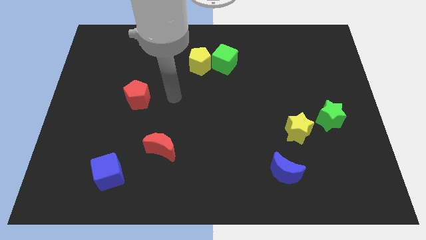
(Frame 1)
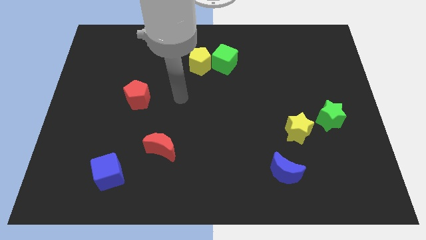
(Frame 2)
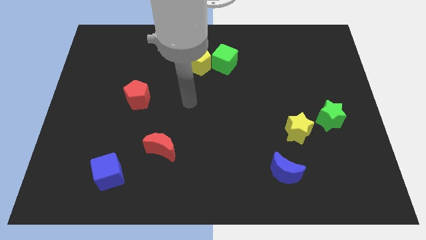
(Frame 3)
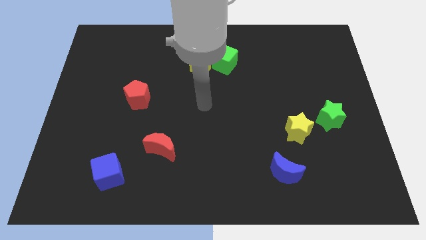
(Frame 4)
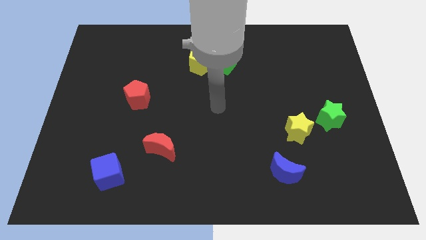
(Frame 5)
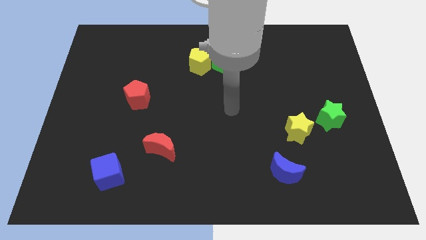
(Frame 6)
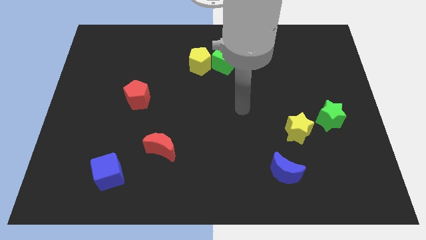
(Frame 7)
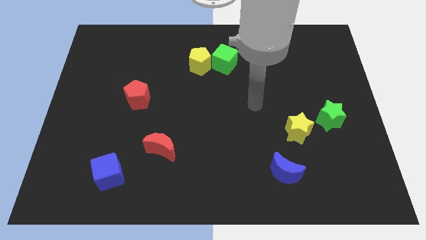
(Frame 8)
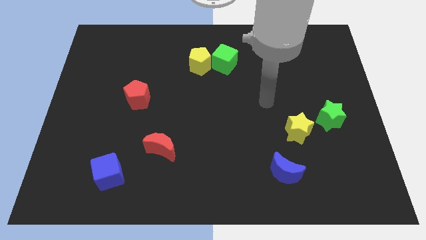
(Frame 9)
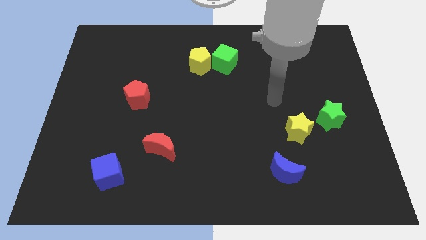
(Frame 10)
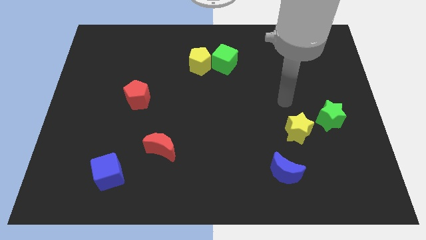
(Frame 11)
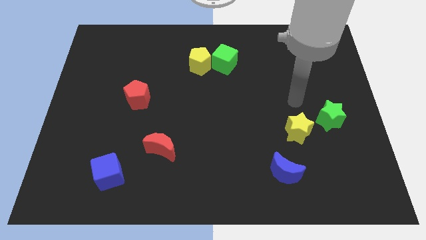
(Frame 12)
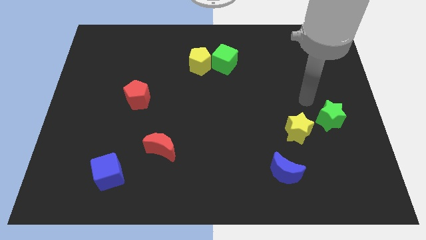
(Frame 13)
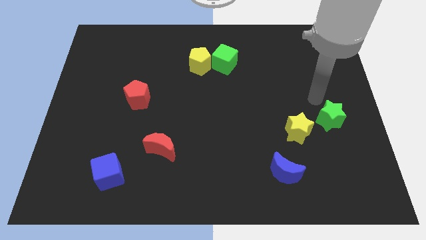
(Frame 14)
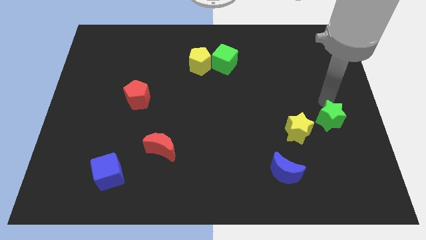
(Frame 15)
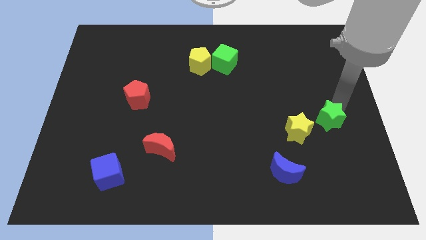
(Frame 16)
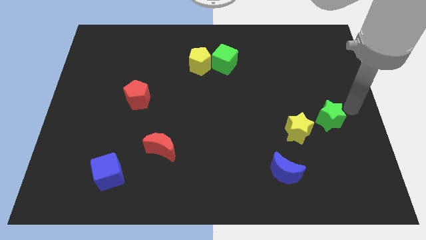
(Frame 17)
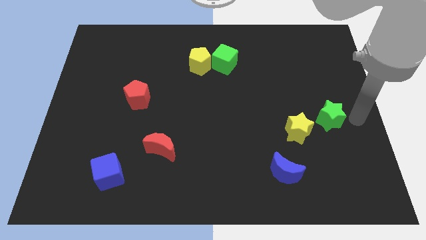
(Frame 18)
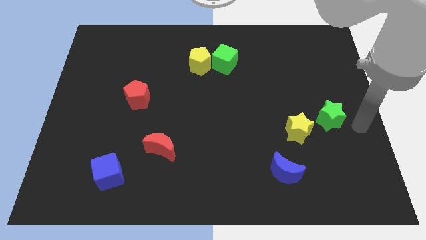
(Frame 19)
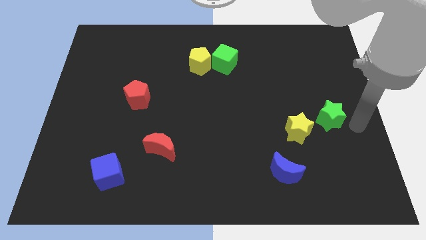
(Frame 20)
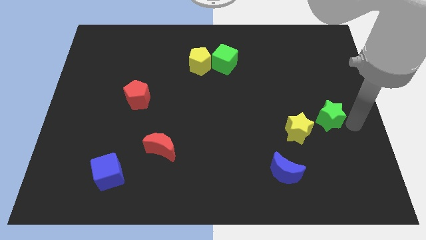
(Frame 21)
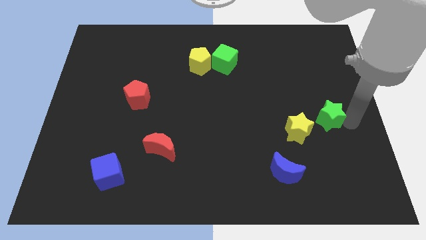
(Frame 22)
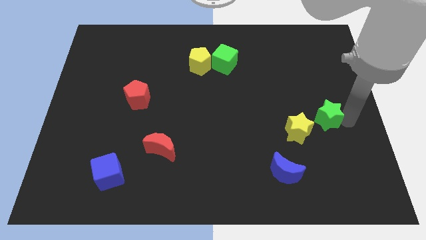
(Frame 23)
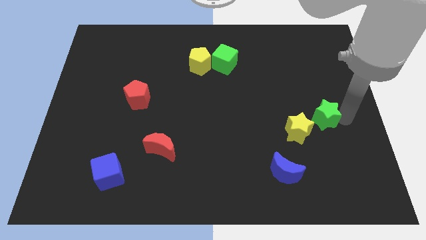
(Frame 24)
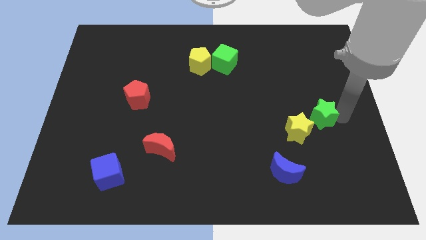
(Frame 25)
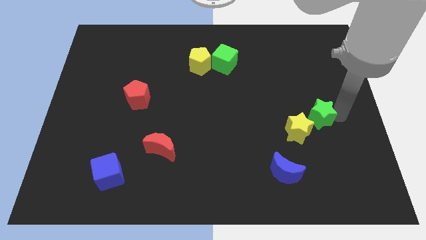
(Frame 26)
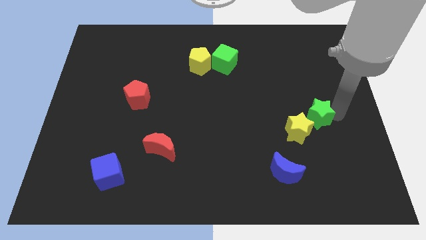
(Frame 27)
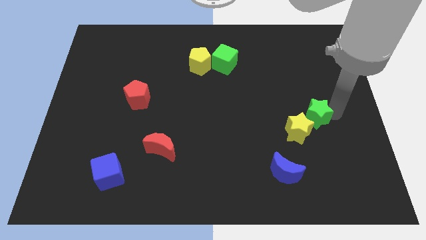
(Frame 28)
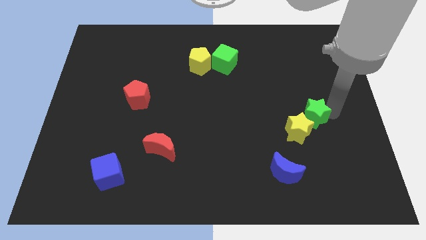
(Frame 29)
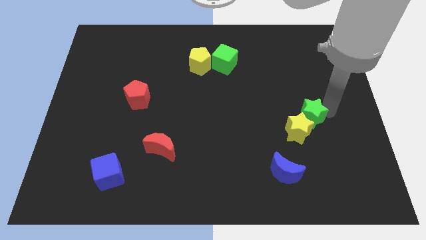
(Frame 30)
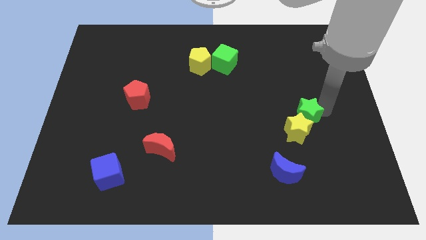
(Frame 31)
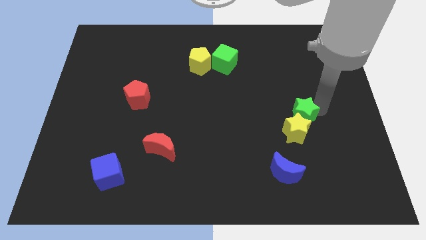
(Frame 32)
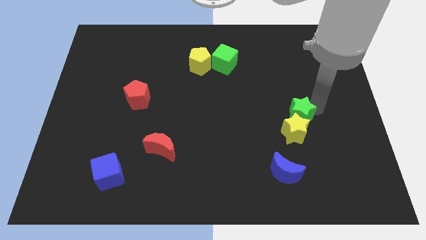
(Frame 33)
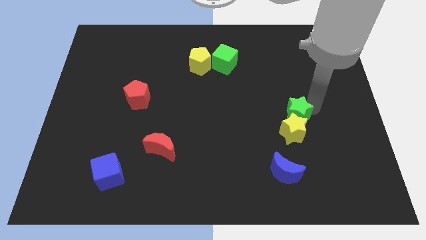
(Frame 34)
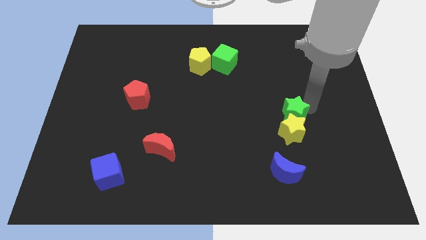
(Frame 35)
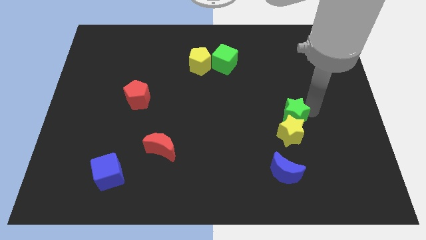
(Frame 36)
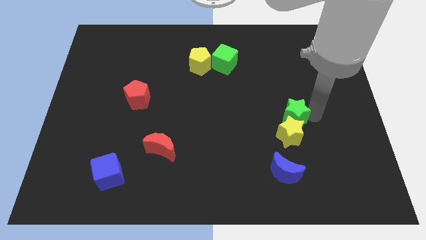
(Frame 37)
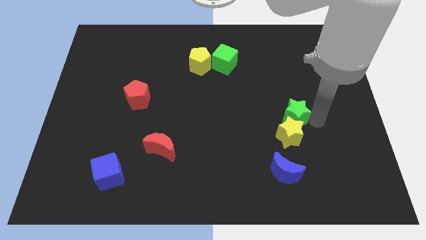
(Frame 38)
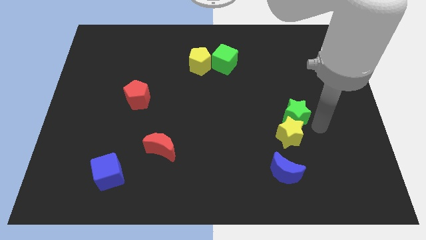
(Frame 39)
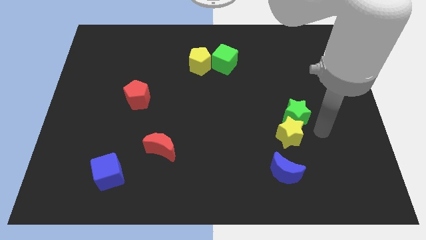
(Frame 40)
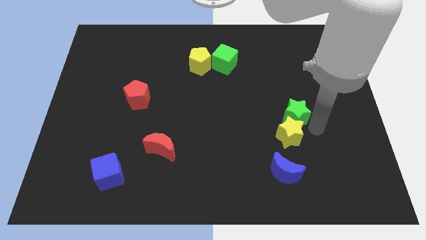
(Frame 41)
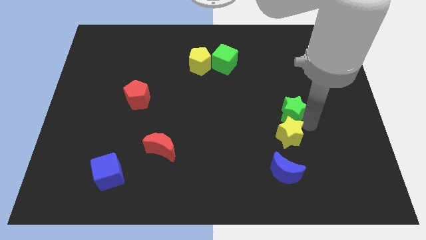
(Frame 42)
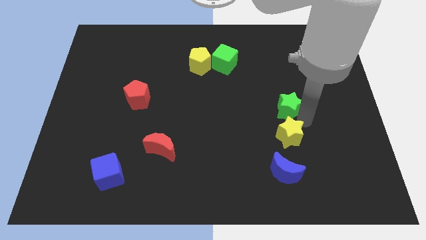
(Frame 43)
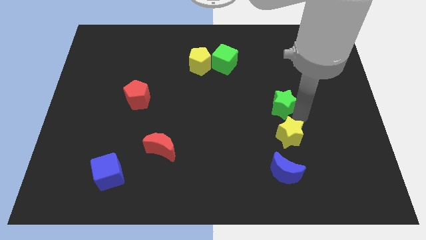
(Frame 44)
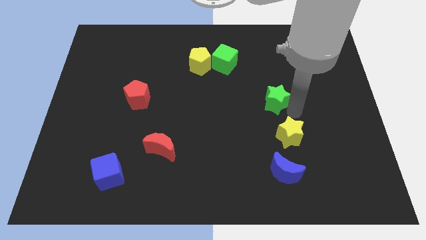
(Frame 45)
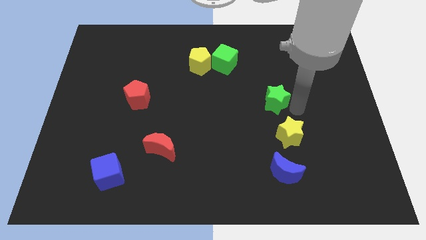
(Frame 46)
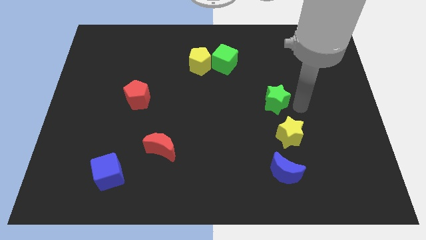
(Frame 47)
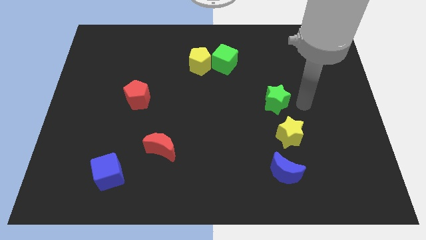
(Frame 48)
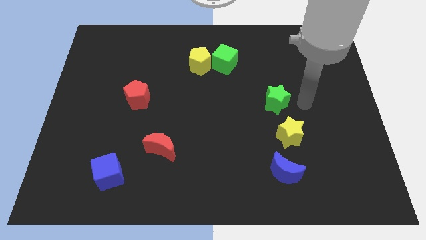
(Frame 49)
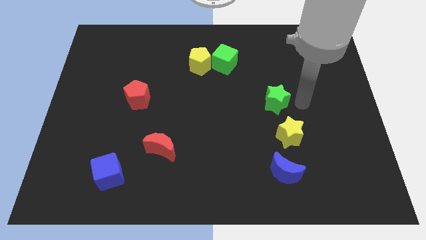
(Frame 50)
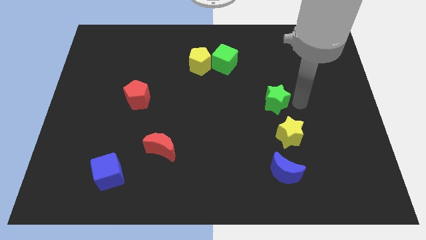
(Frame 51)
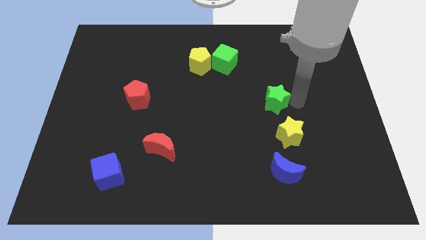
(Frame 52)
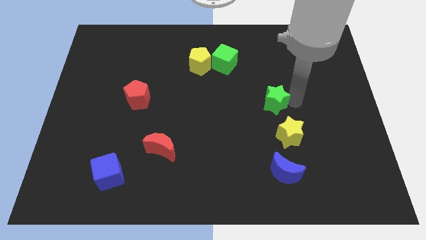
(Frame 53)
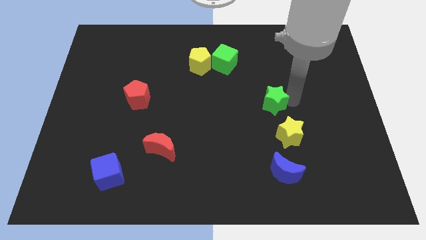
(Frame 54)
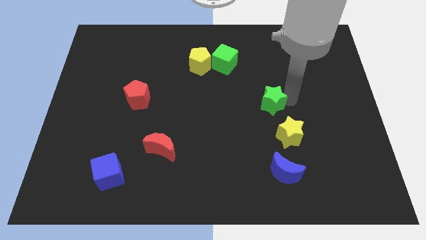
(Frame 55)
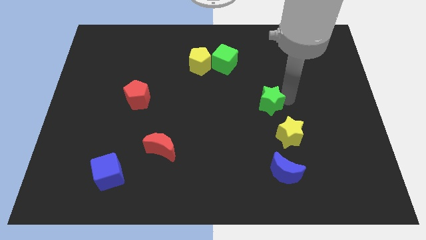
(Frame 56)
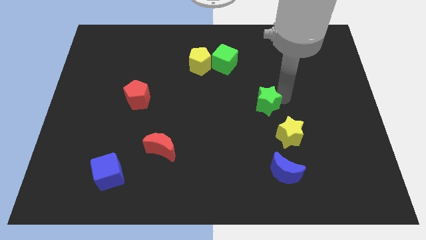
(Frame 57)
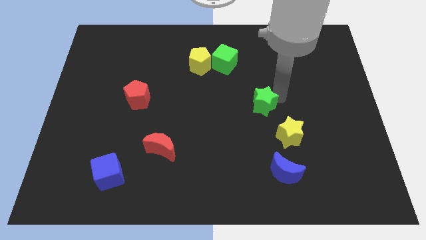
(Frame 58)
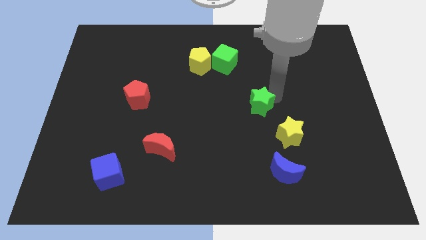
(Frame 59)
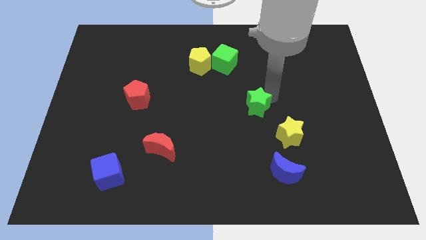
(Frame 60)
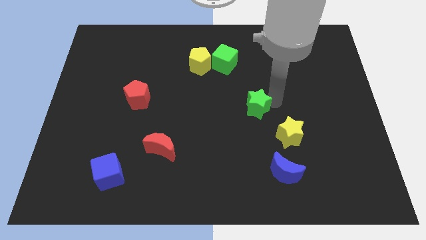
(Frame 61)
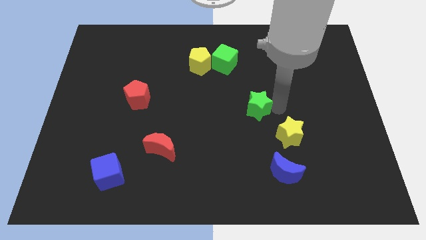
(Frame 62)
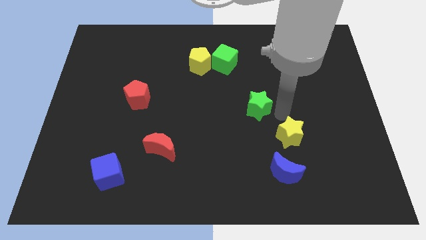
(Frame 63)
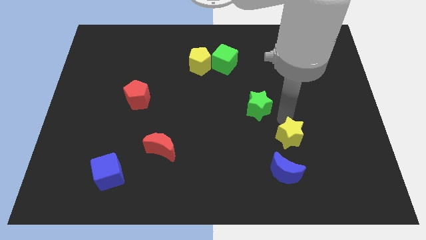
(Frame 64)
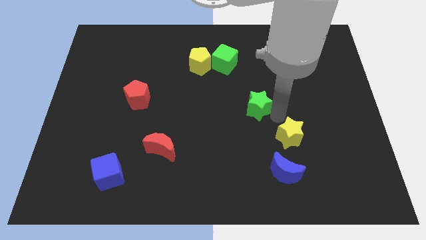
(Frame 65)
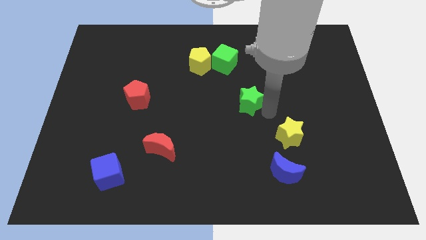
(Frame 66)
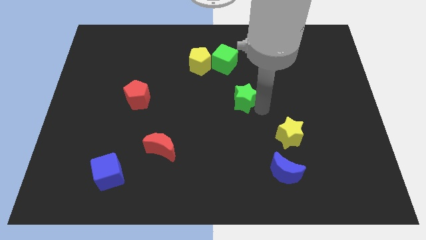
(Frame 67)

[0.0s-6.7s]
move the green star to the bottom side of the green cube

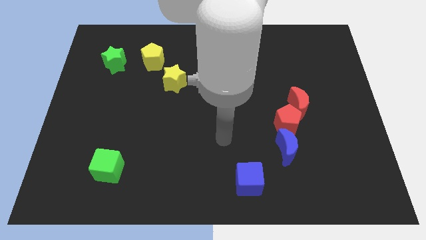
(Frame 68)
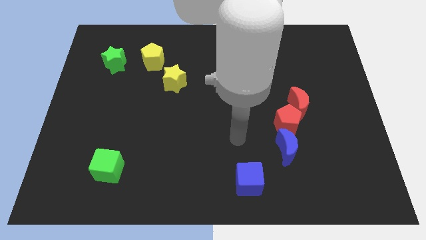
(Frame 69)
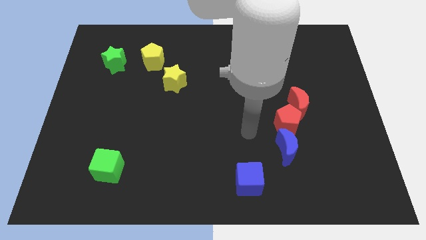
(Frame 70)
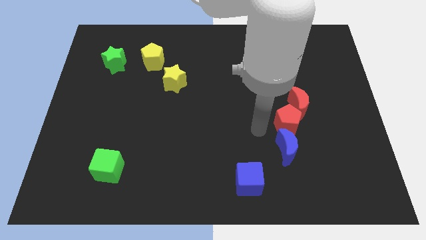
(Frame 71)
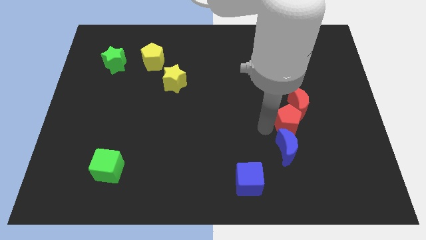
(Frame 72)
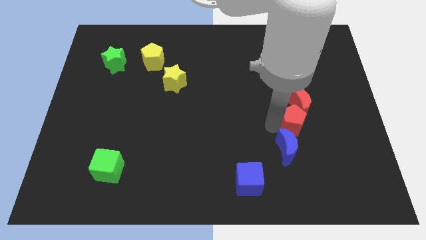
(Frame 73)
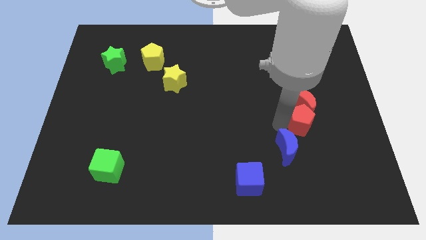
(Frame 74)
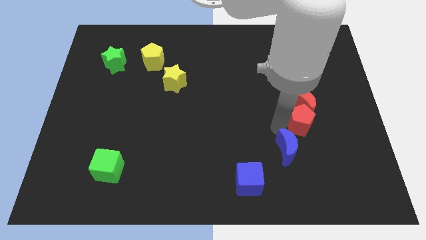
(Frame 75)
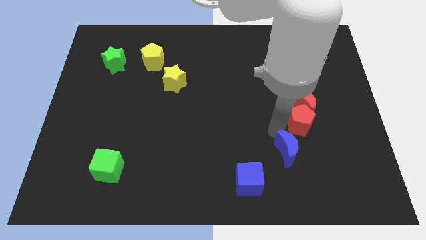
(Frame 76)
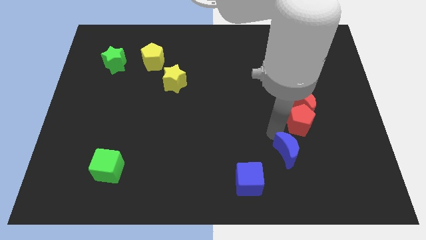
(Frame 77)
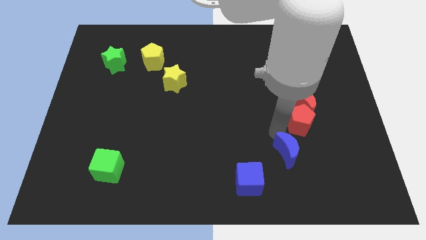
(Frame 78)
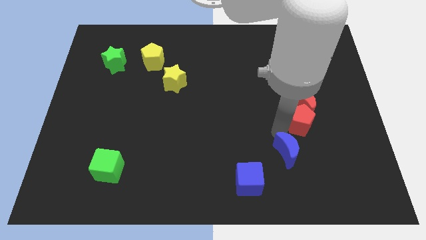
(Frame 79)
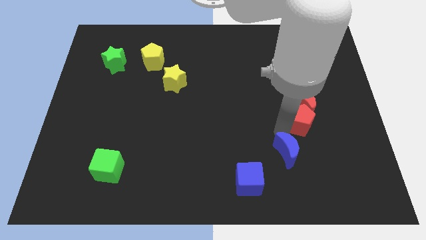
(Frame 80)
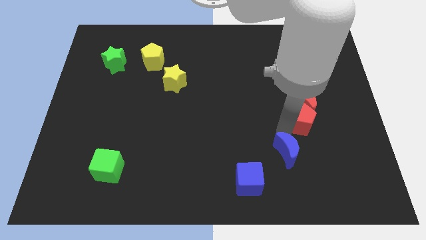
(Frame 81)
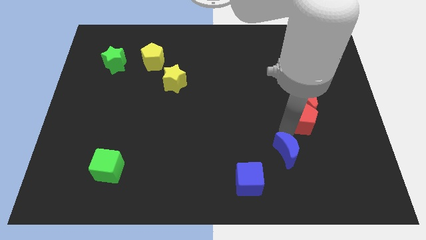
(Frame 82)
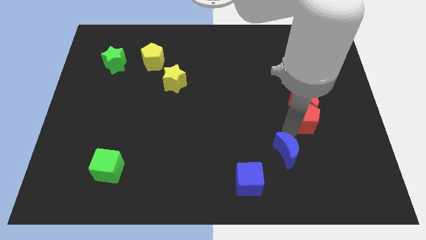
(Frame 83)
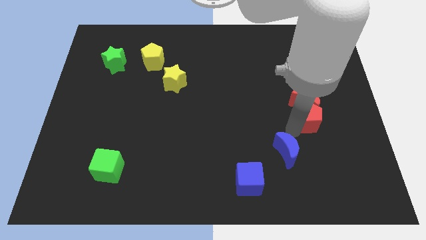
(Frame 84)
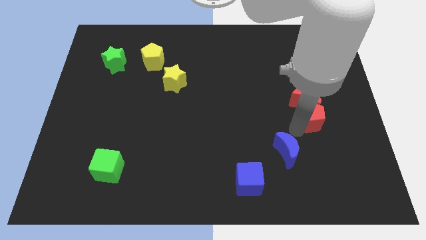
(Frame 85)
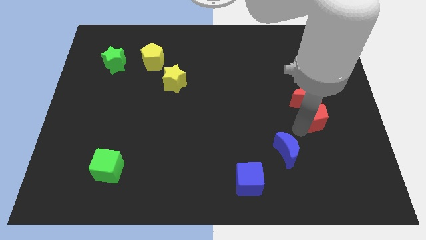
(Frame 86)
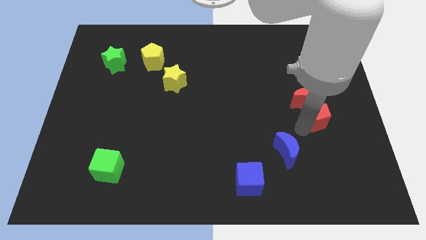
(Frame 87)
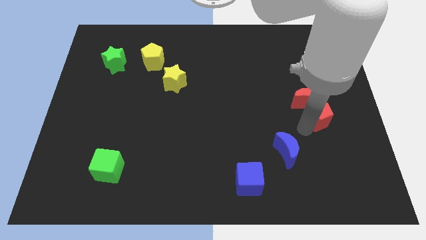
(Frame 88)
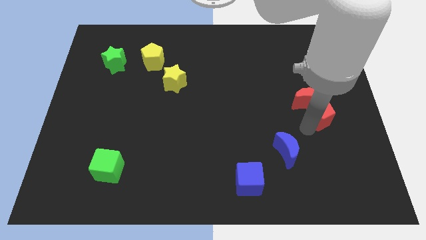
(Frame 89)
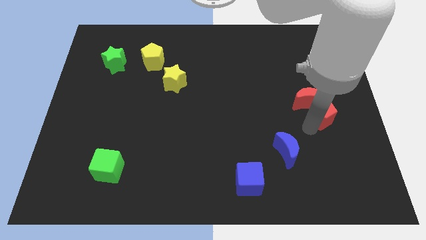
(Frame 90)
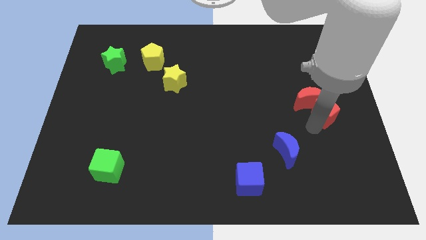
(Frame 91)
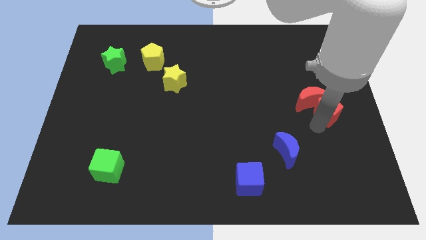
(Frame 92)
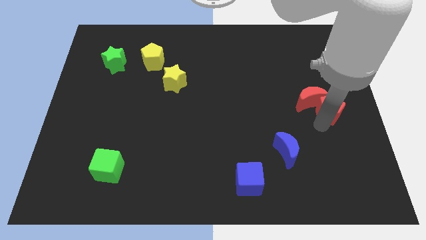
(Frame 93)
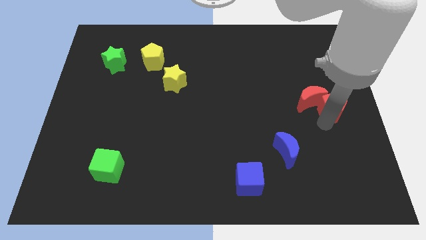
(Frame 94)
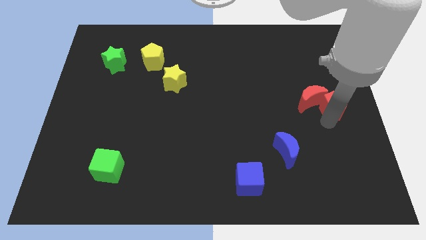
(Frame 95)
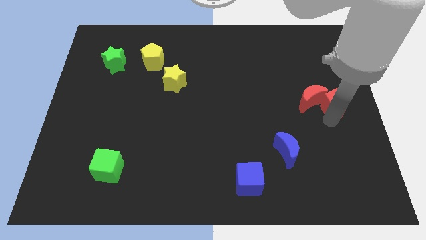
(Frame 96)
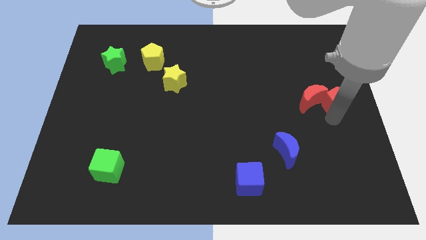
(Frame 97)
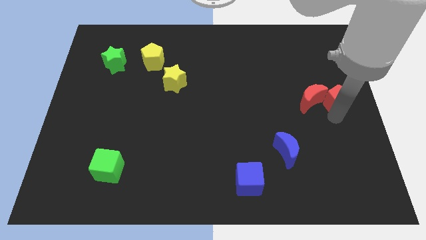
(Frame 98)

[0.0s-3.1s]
move the red pentagon to the top right side of the red moon
